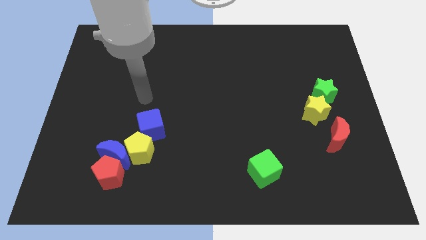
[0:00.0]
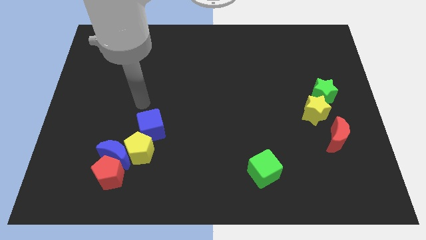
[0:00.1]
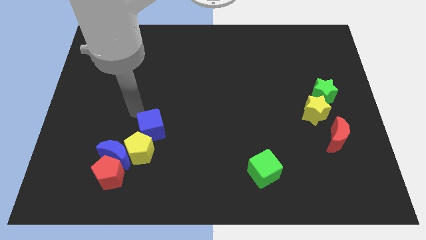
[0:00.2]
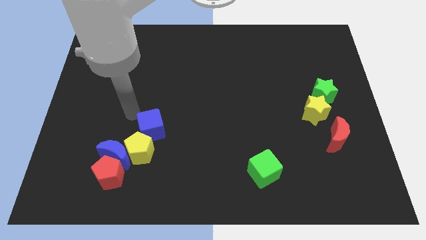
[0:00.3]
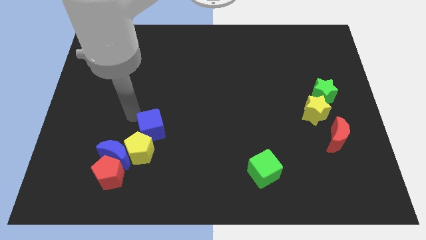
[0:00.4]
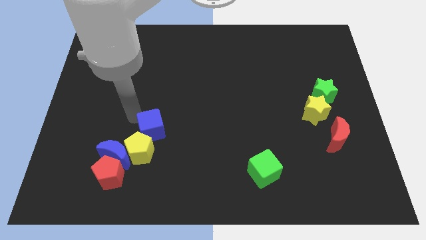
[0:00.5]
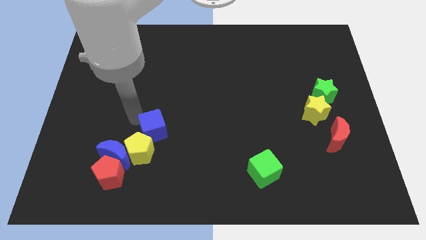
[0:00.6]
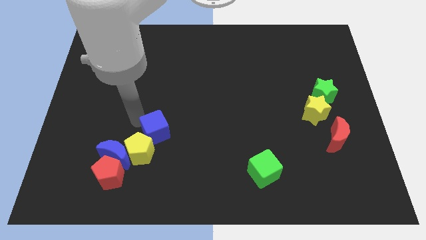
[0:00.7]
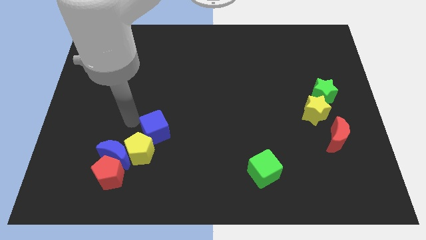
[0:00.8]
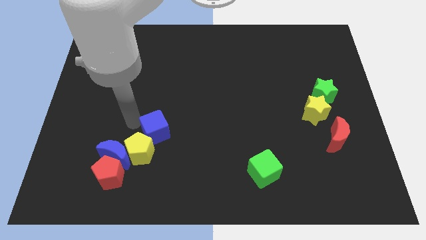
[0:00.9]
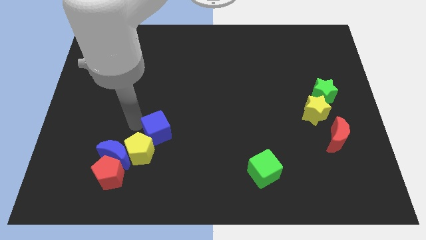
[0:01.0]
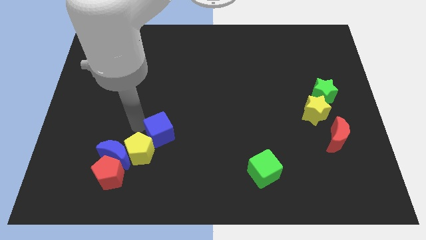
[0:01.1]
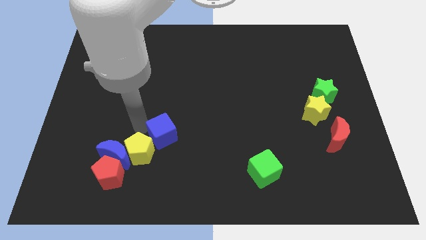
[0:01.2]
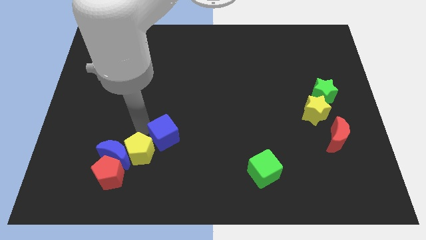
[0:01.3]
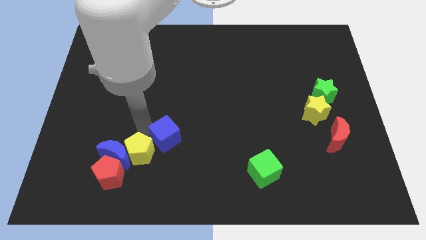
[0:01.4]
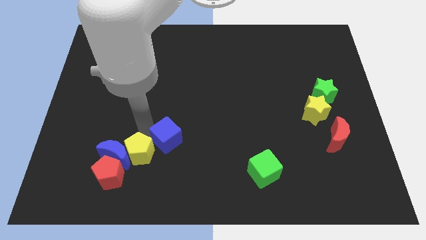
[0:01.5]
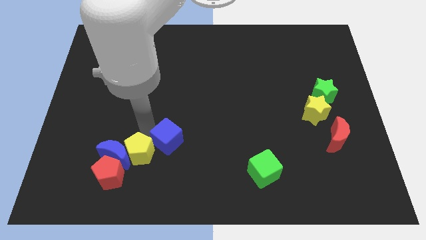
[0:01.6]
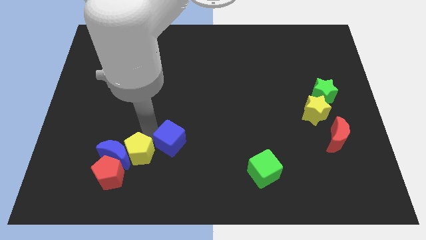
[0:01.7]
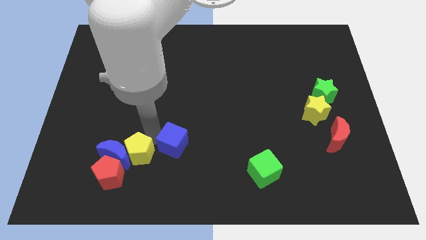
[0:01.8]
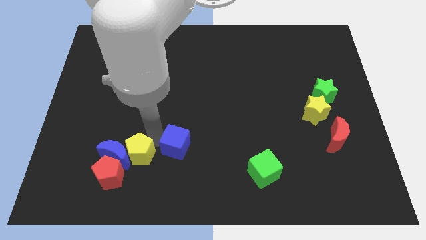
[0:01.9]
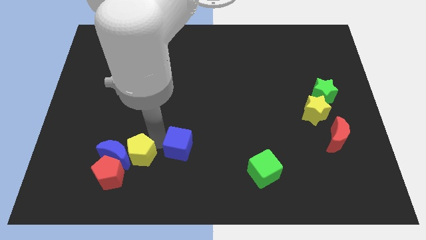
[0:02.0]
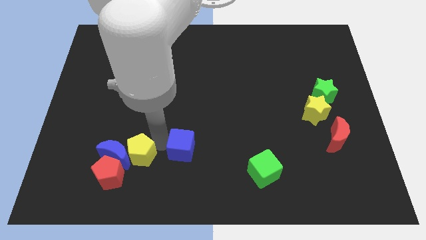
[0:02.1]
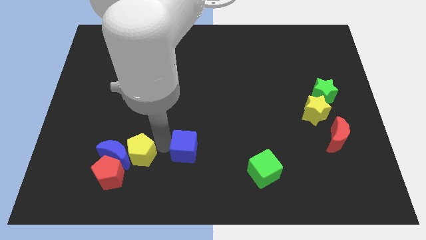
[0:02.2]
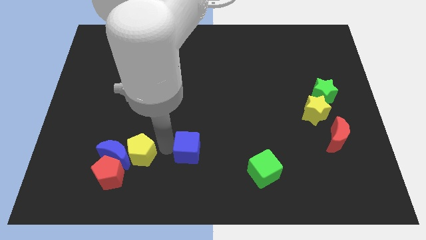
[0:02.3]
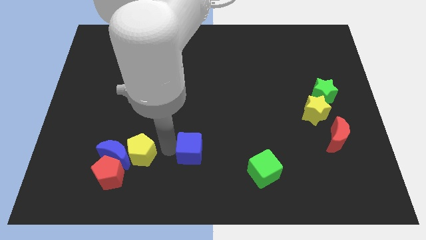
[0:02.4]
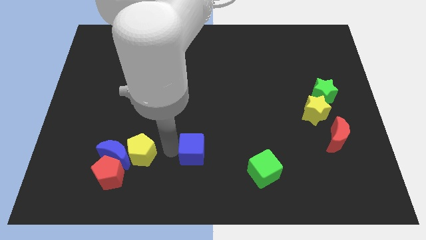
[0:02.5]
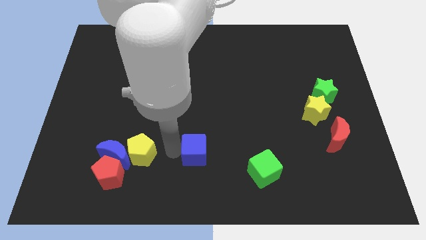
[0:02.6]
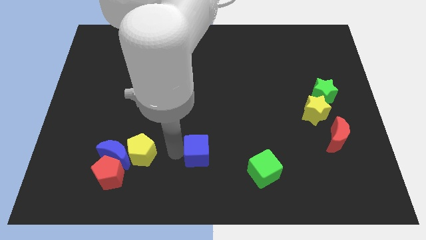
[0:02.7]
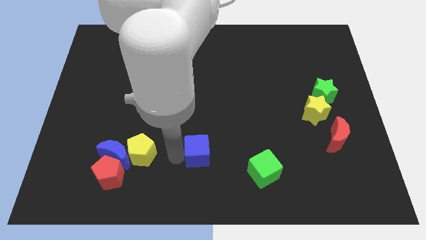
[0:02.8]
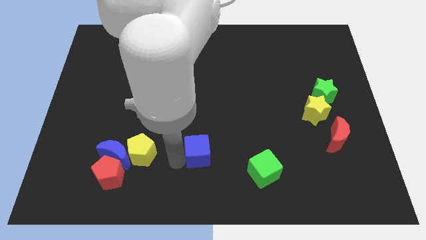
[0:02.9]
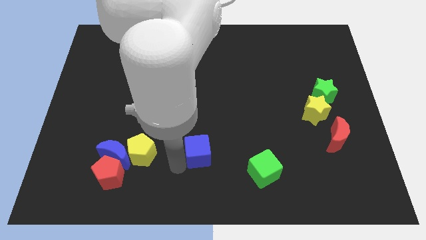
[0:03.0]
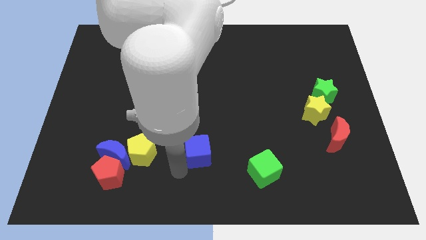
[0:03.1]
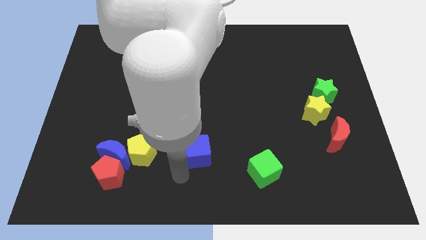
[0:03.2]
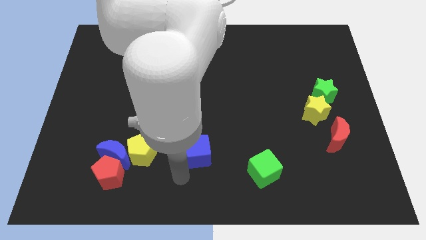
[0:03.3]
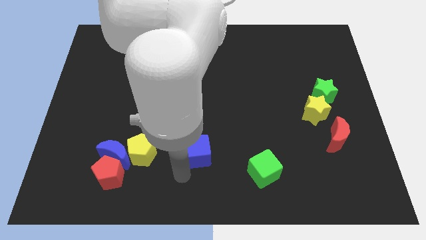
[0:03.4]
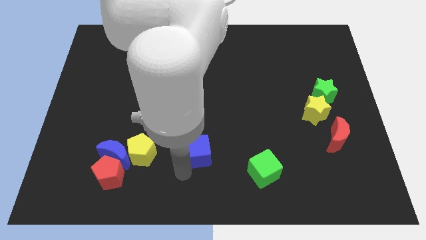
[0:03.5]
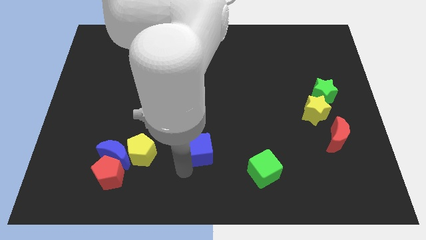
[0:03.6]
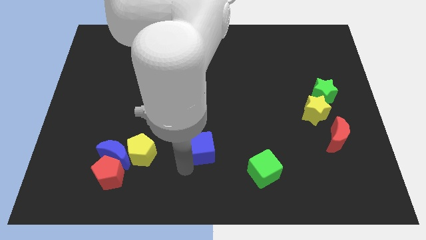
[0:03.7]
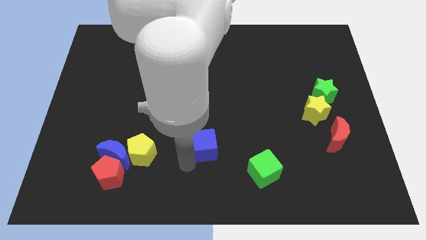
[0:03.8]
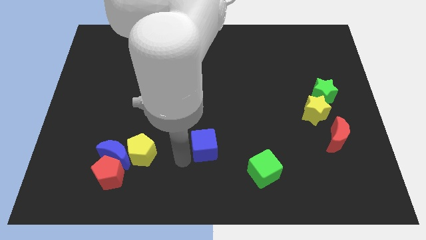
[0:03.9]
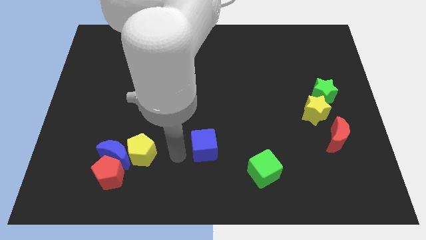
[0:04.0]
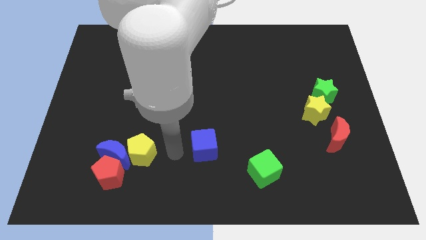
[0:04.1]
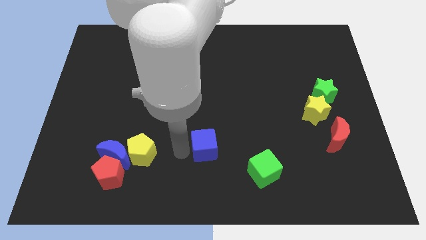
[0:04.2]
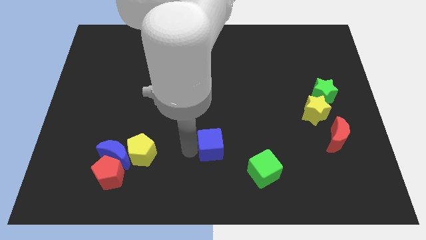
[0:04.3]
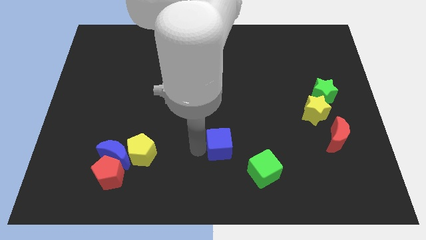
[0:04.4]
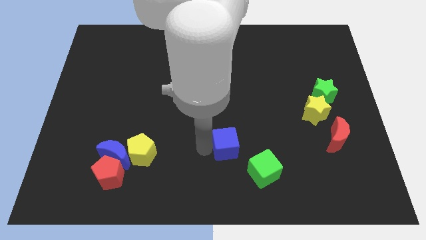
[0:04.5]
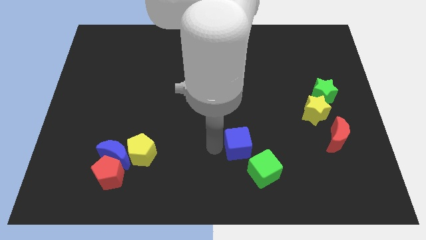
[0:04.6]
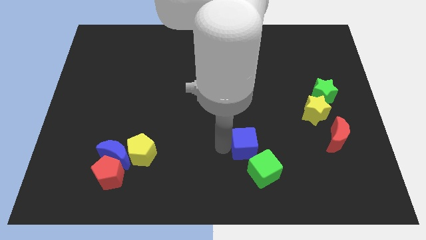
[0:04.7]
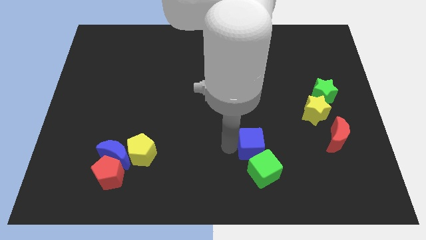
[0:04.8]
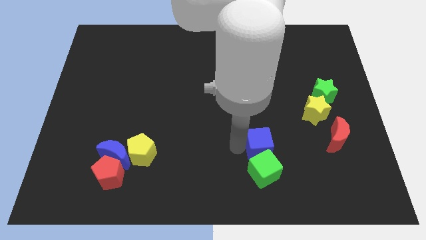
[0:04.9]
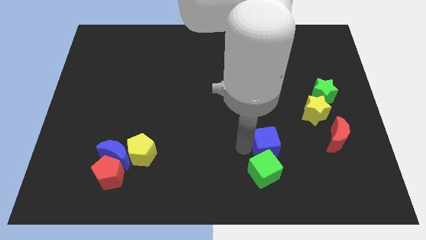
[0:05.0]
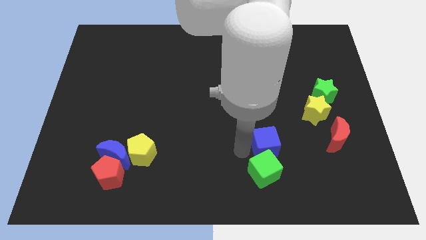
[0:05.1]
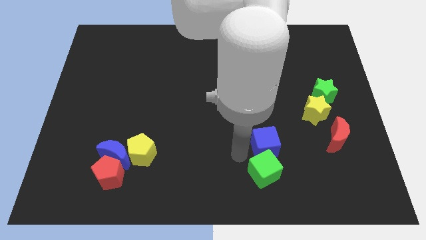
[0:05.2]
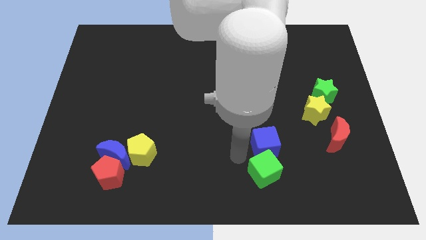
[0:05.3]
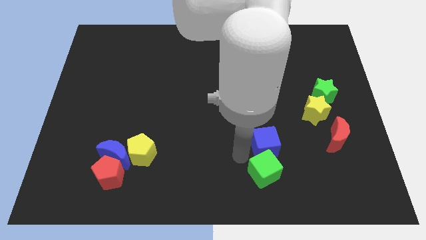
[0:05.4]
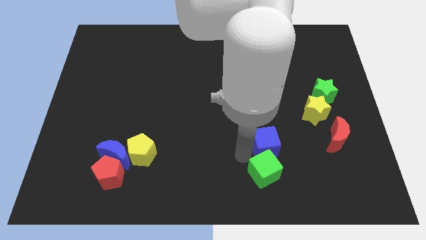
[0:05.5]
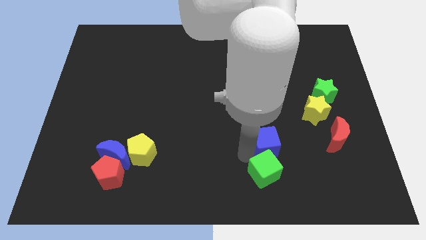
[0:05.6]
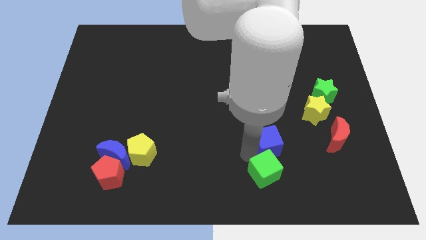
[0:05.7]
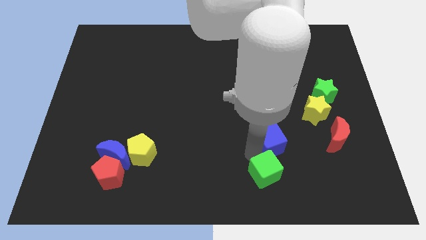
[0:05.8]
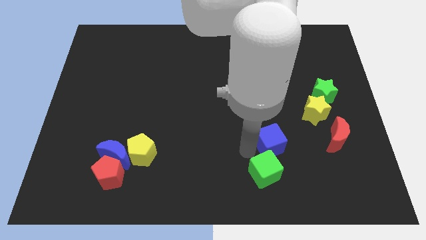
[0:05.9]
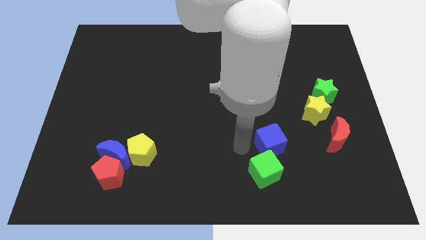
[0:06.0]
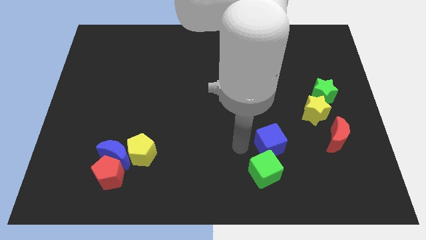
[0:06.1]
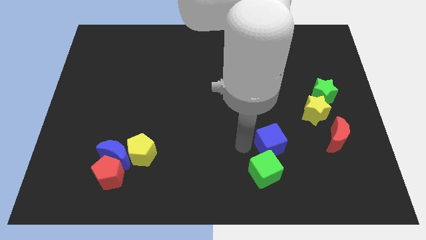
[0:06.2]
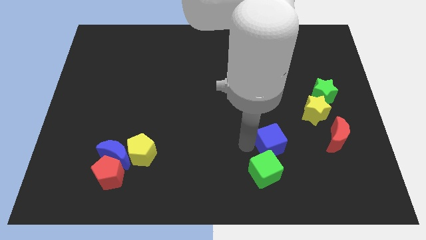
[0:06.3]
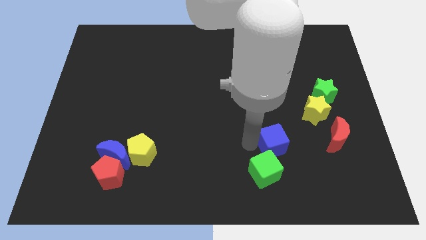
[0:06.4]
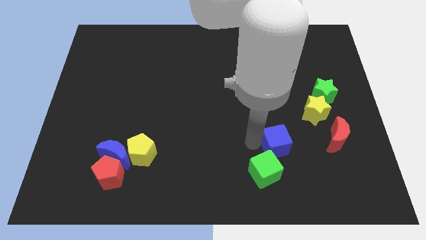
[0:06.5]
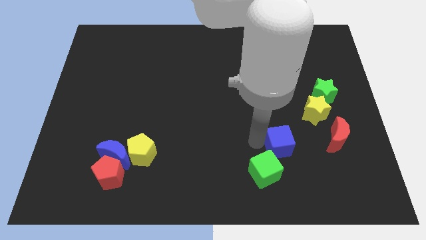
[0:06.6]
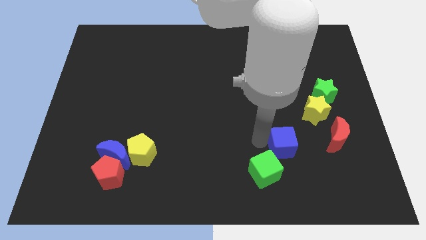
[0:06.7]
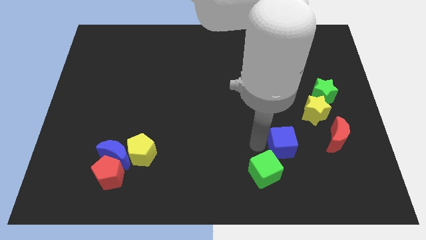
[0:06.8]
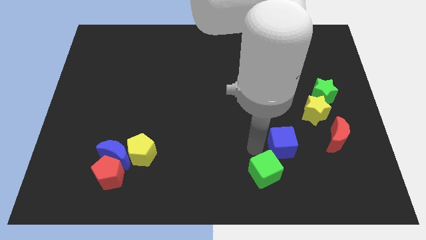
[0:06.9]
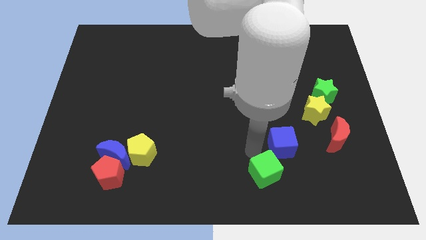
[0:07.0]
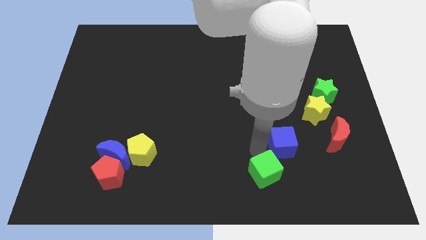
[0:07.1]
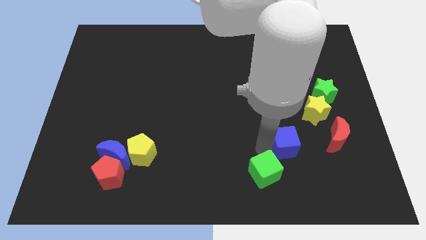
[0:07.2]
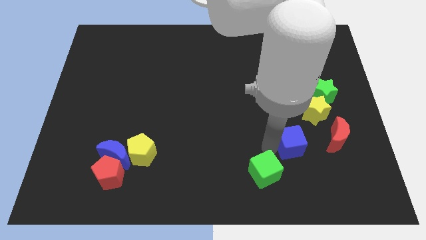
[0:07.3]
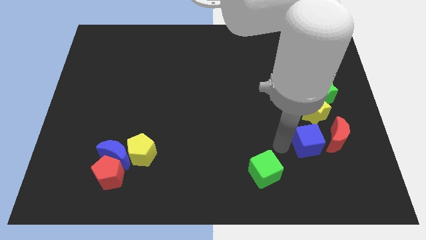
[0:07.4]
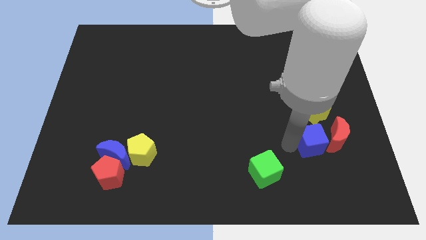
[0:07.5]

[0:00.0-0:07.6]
slide the blue cube close to the red moon
